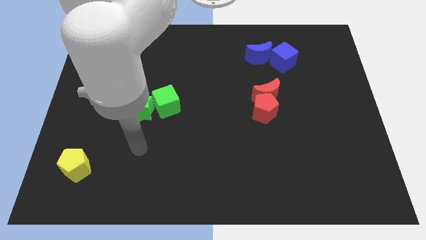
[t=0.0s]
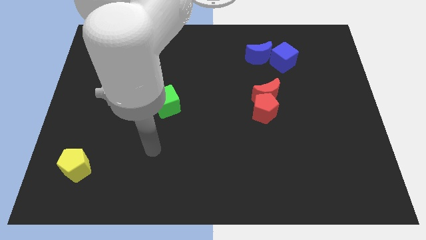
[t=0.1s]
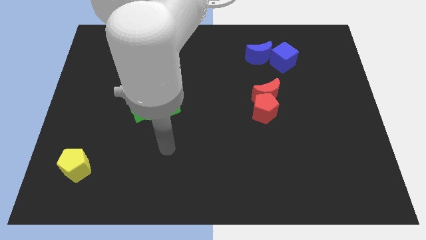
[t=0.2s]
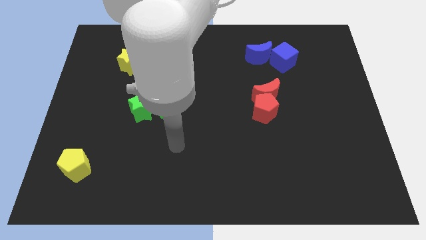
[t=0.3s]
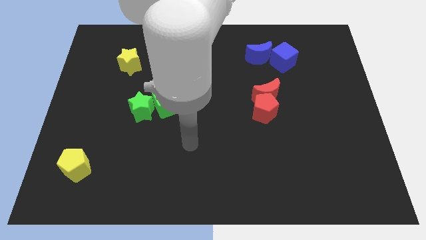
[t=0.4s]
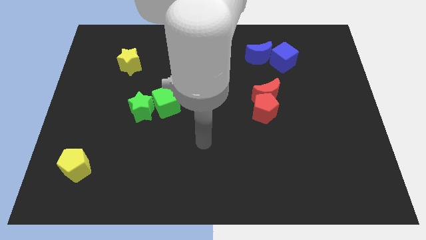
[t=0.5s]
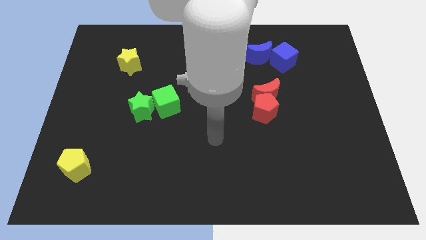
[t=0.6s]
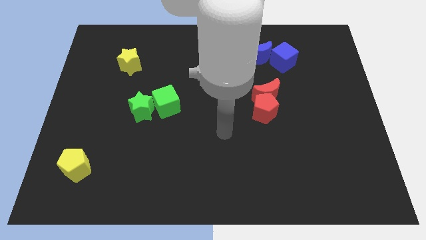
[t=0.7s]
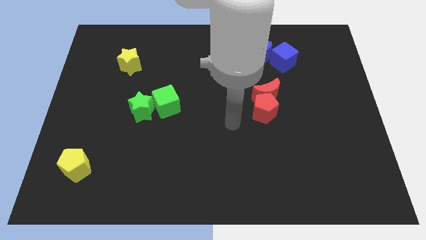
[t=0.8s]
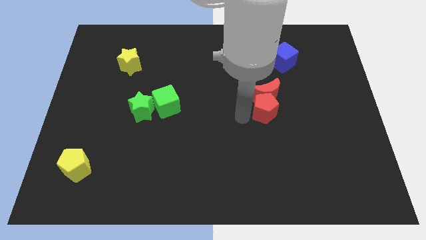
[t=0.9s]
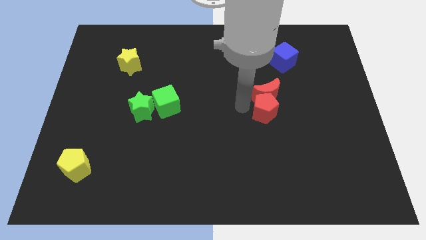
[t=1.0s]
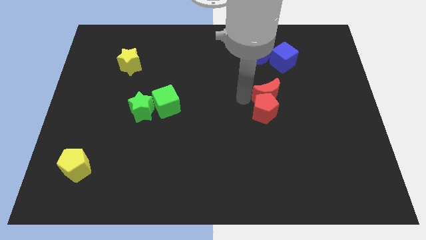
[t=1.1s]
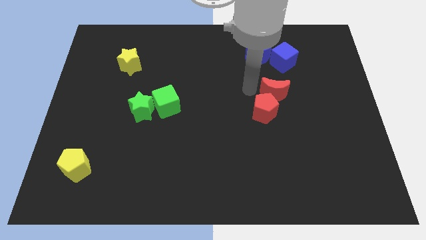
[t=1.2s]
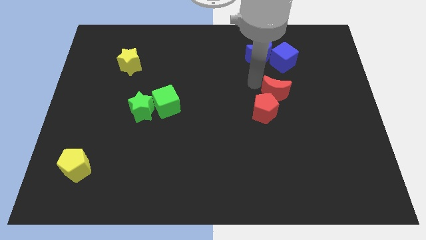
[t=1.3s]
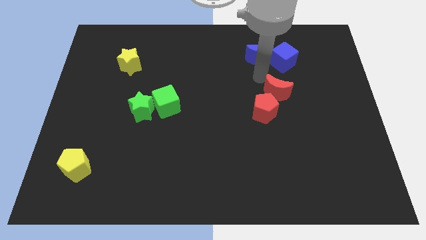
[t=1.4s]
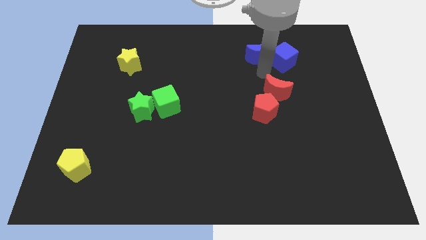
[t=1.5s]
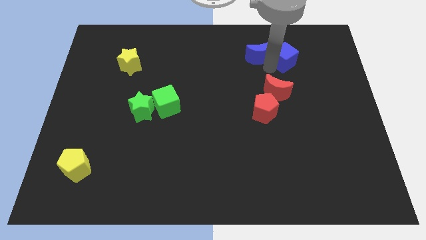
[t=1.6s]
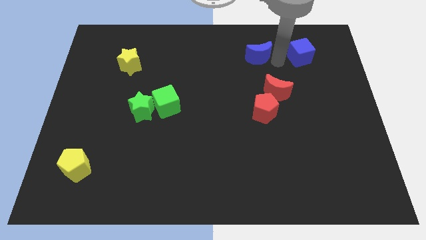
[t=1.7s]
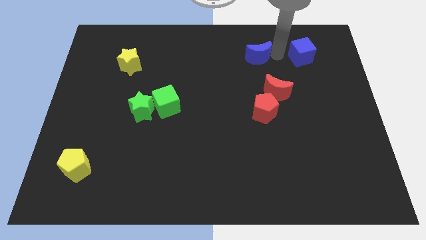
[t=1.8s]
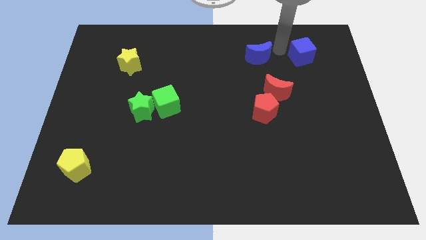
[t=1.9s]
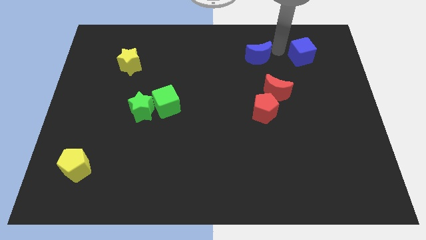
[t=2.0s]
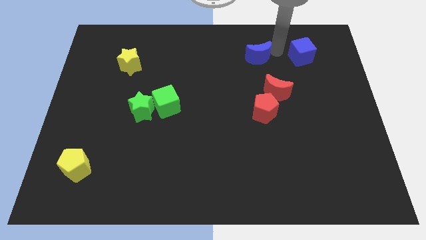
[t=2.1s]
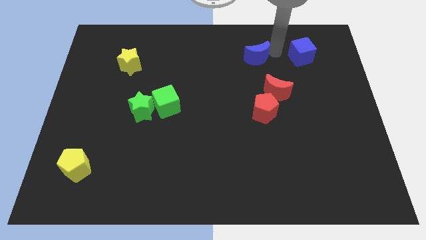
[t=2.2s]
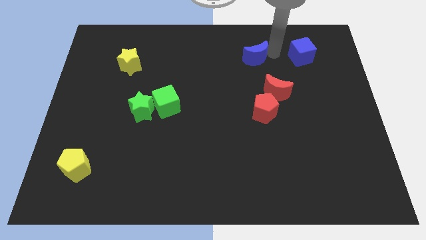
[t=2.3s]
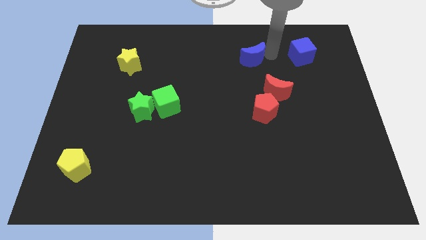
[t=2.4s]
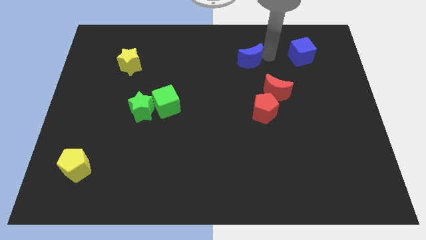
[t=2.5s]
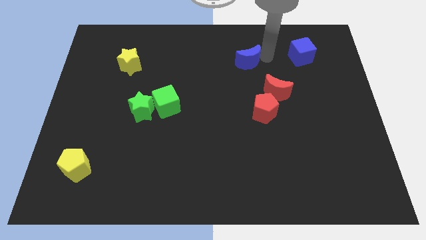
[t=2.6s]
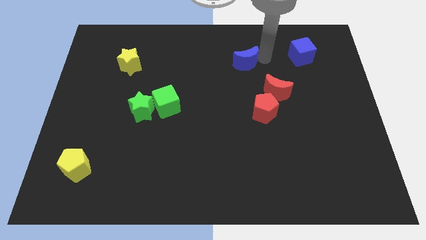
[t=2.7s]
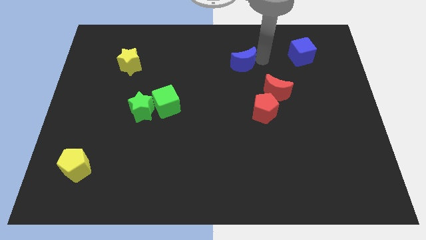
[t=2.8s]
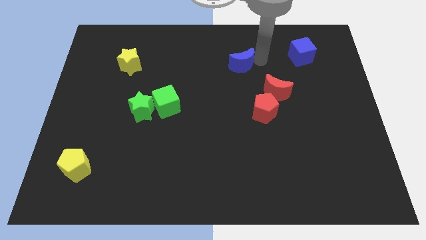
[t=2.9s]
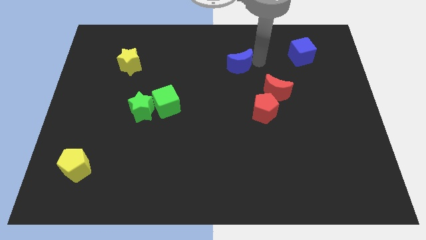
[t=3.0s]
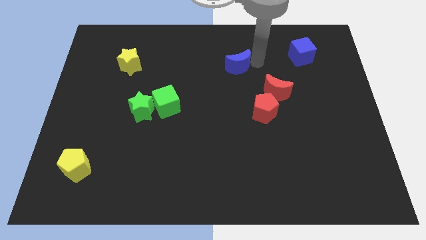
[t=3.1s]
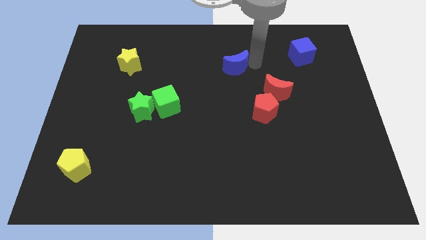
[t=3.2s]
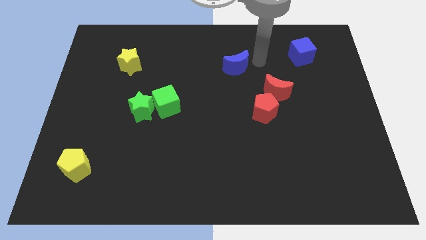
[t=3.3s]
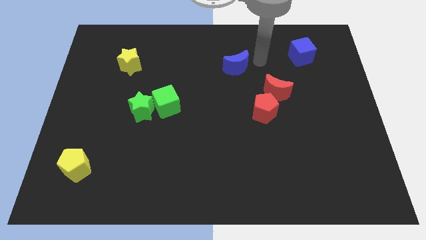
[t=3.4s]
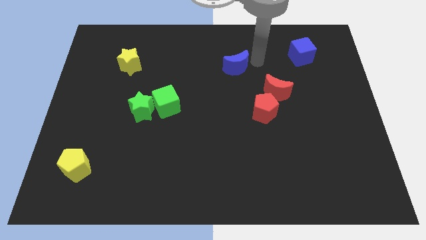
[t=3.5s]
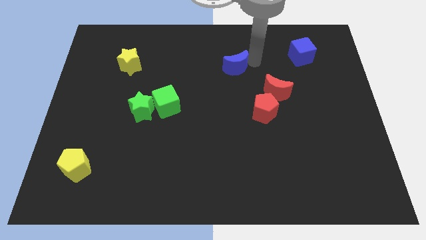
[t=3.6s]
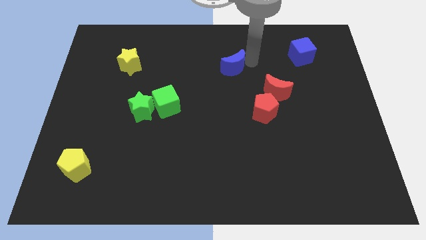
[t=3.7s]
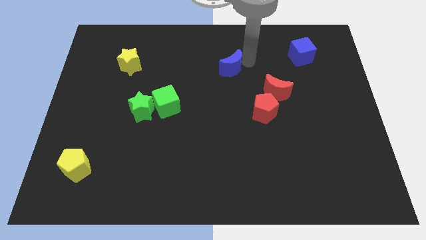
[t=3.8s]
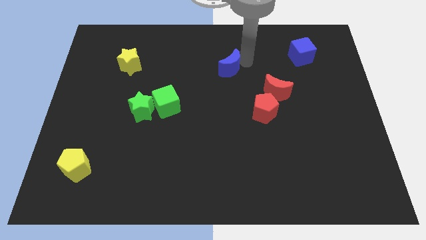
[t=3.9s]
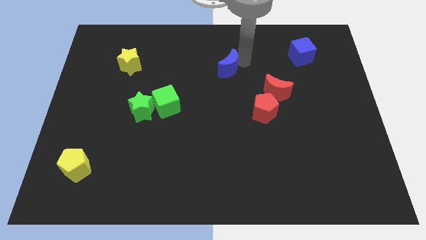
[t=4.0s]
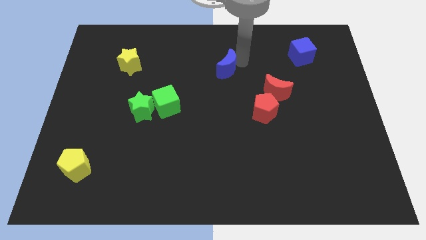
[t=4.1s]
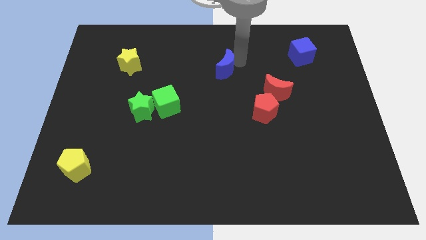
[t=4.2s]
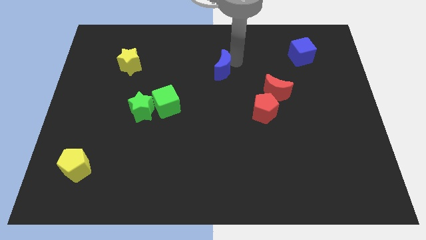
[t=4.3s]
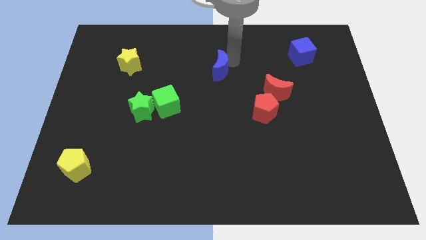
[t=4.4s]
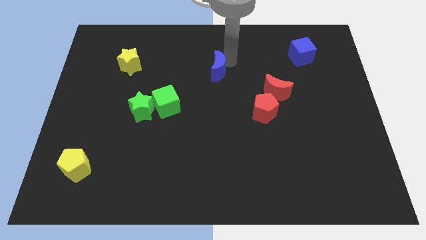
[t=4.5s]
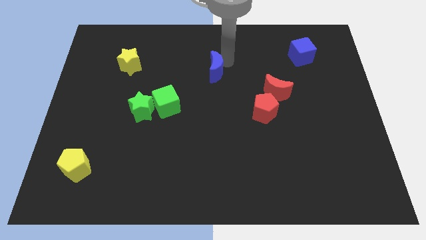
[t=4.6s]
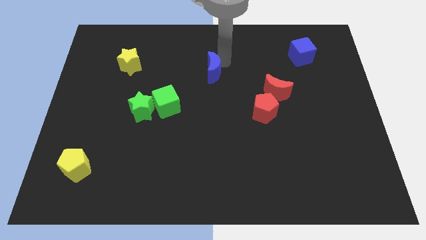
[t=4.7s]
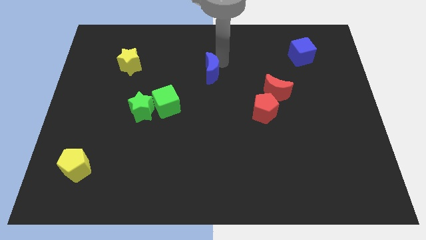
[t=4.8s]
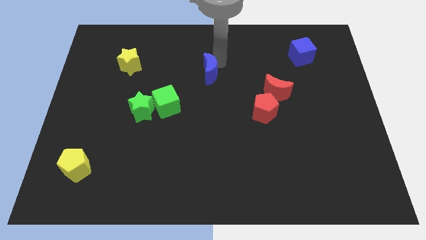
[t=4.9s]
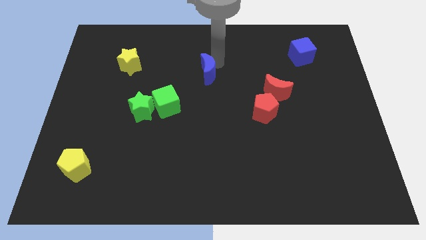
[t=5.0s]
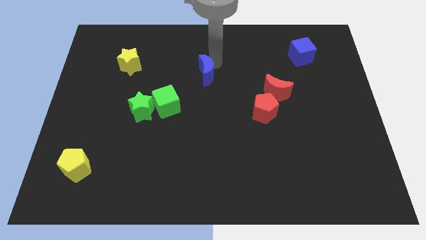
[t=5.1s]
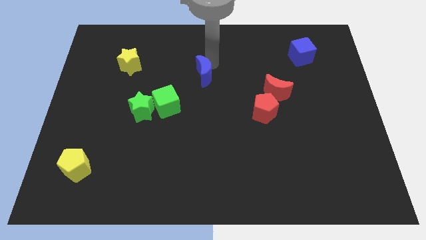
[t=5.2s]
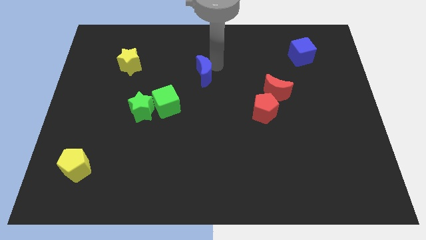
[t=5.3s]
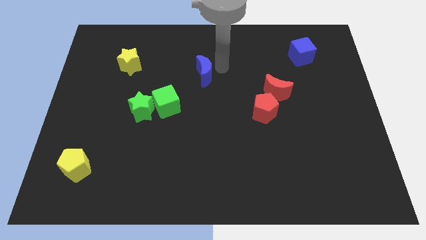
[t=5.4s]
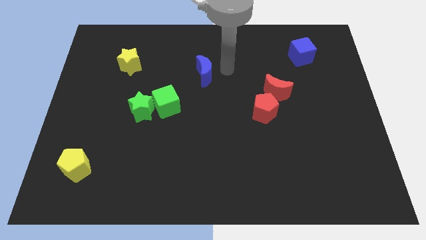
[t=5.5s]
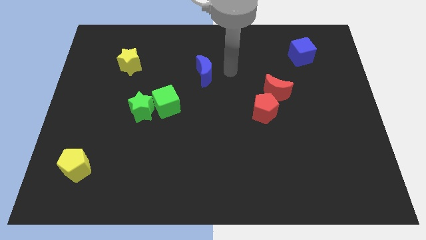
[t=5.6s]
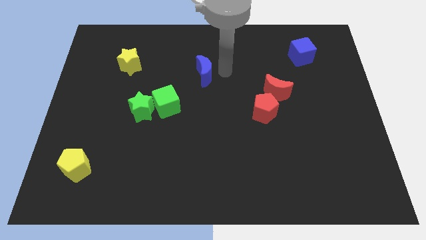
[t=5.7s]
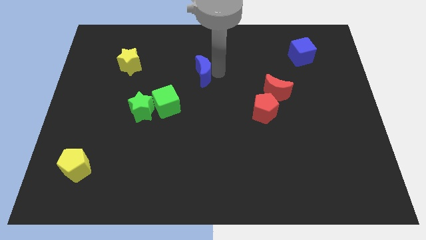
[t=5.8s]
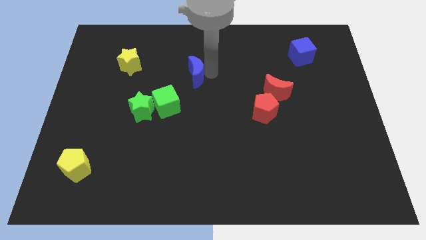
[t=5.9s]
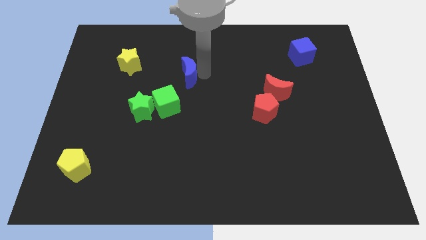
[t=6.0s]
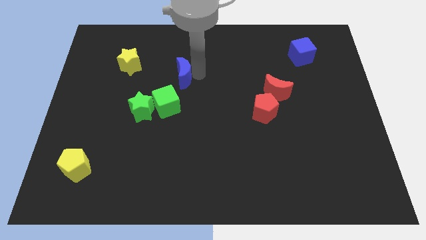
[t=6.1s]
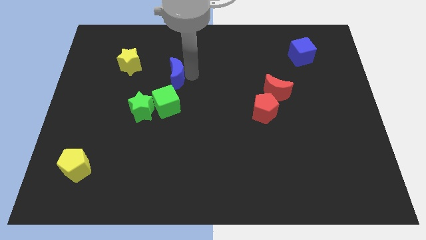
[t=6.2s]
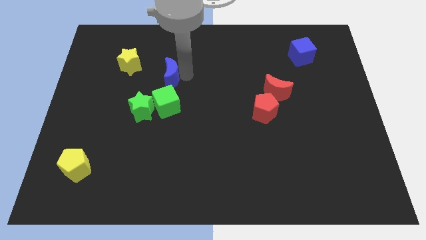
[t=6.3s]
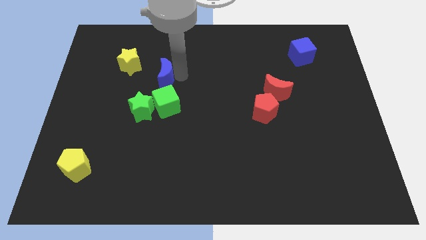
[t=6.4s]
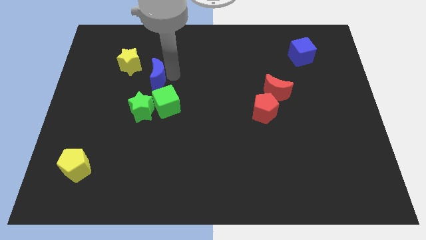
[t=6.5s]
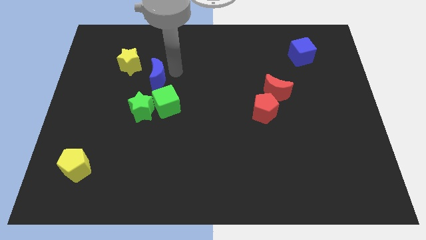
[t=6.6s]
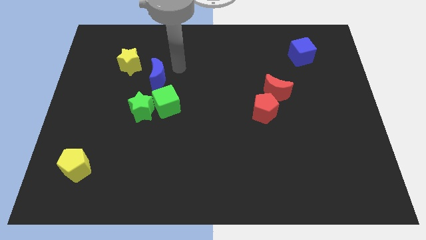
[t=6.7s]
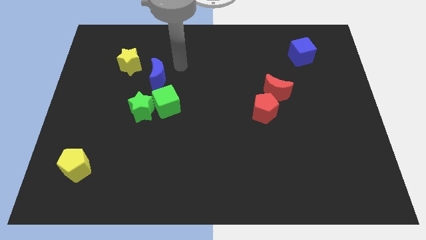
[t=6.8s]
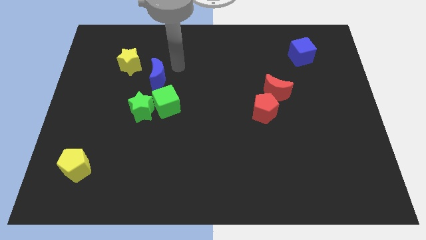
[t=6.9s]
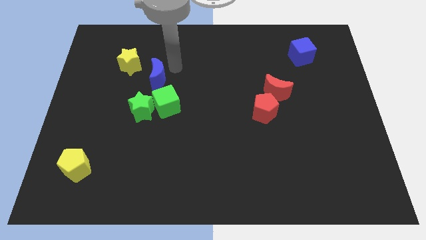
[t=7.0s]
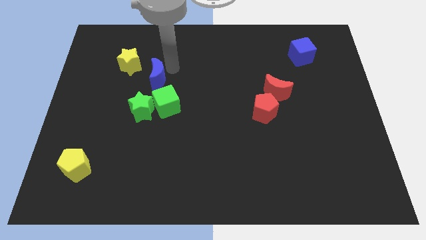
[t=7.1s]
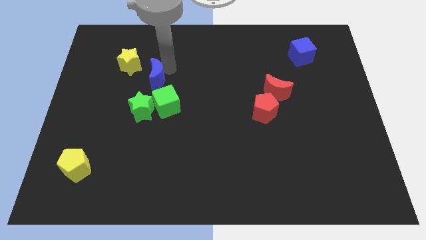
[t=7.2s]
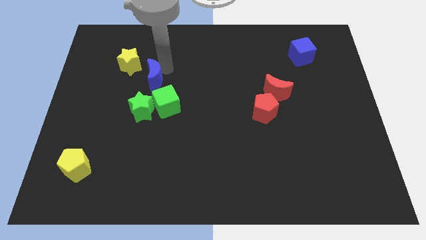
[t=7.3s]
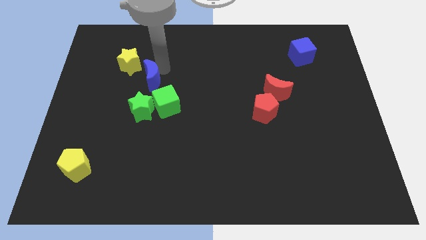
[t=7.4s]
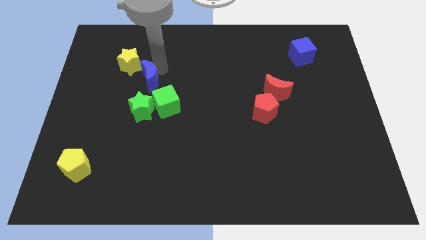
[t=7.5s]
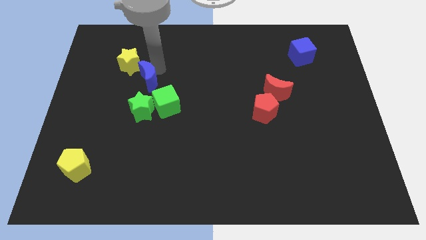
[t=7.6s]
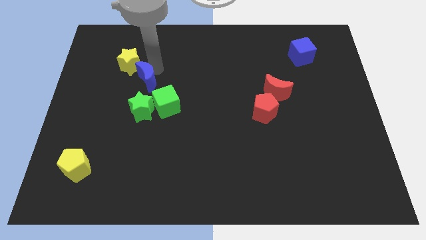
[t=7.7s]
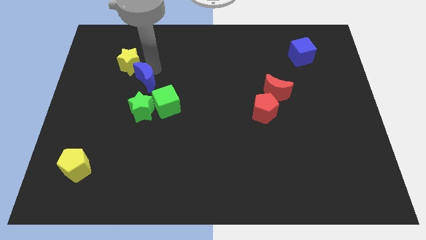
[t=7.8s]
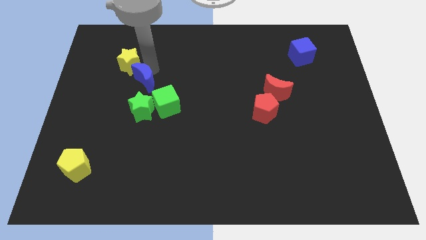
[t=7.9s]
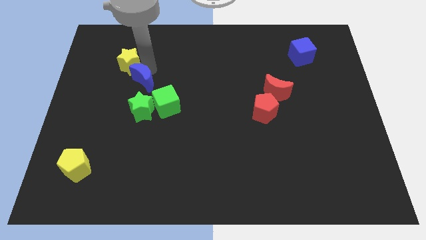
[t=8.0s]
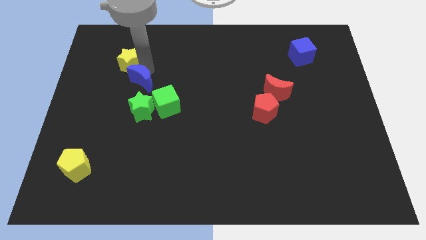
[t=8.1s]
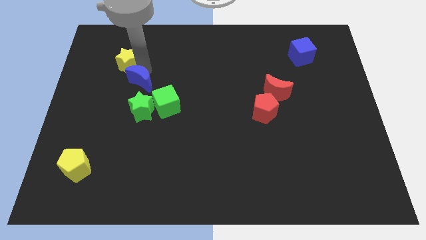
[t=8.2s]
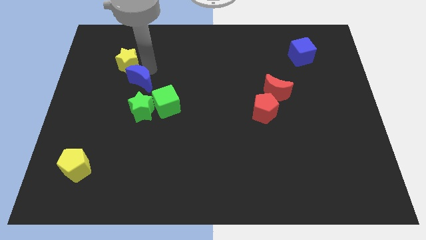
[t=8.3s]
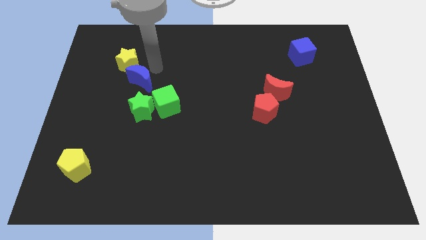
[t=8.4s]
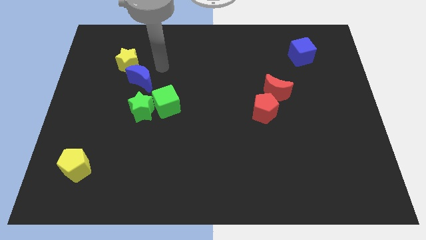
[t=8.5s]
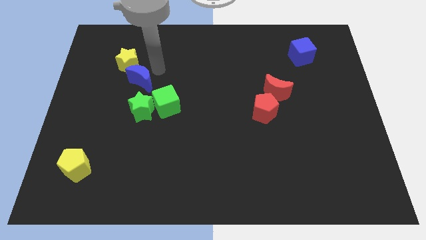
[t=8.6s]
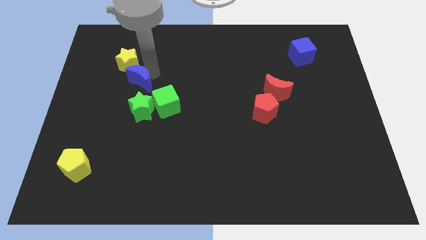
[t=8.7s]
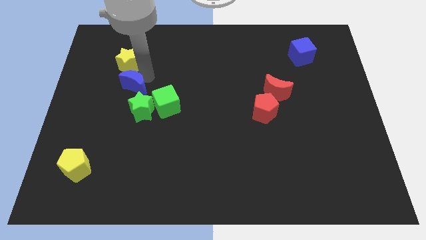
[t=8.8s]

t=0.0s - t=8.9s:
push the blue moon diagonally up and to the left of the green star
